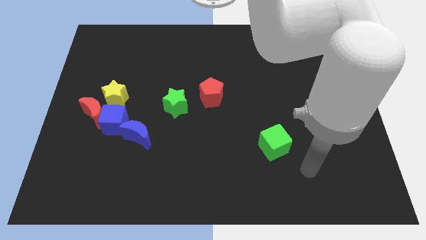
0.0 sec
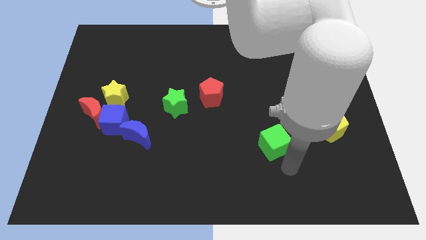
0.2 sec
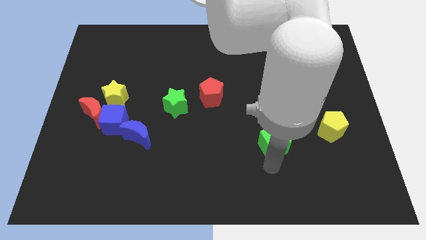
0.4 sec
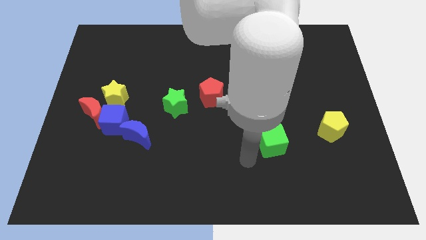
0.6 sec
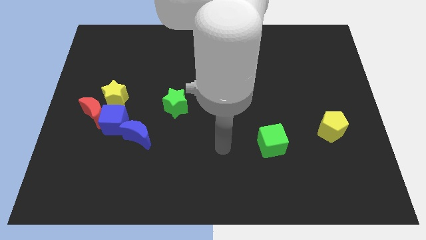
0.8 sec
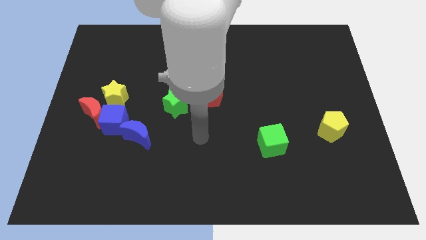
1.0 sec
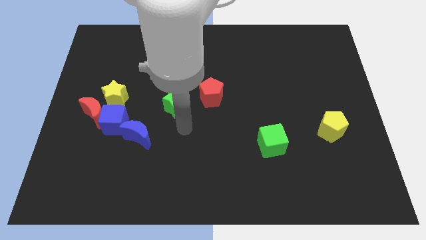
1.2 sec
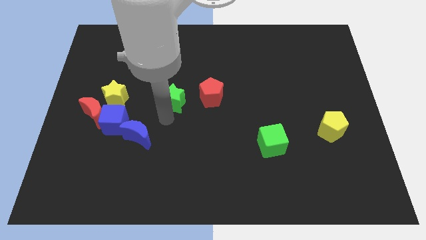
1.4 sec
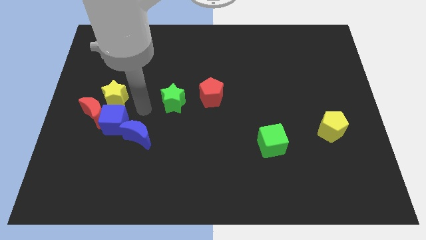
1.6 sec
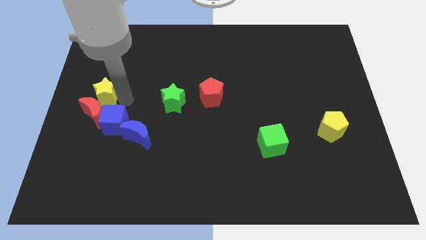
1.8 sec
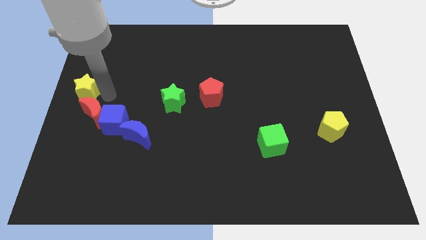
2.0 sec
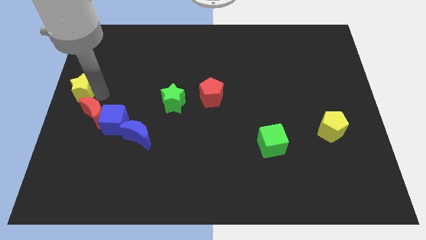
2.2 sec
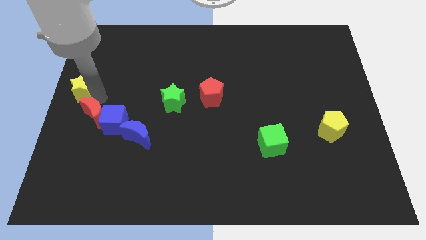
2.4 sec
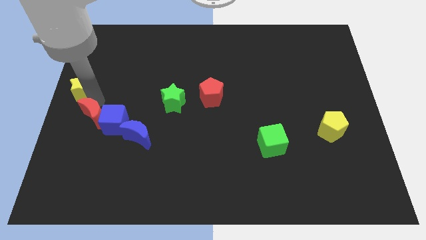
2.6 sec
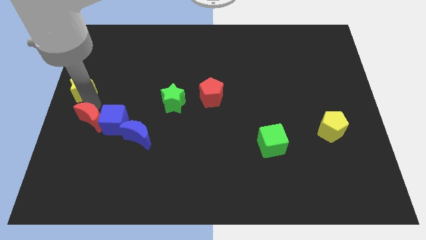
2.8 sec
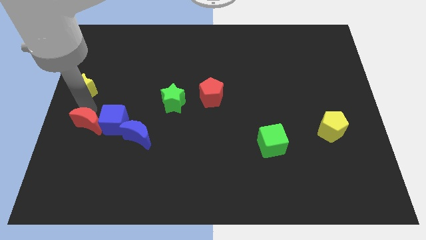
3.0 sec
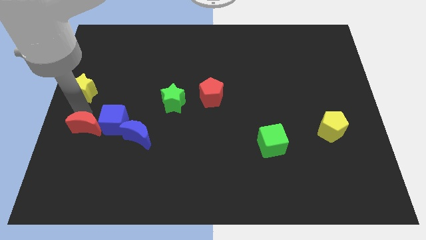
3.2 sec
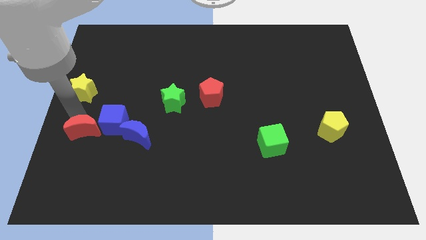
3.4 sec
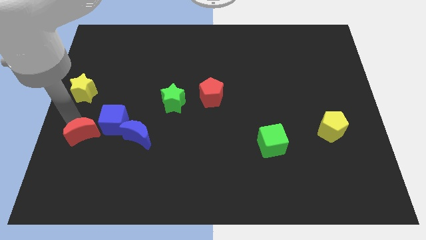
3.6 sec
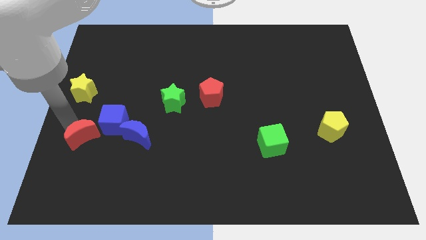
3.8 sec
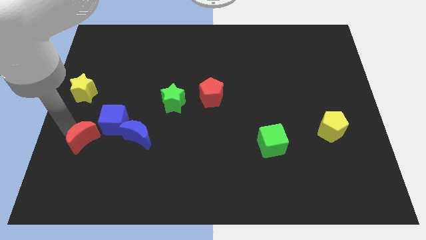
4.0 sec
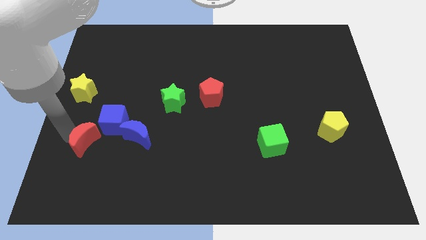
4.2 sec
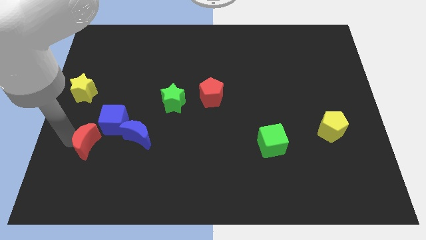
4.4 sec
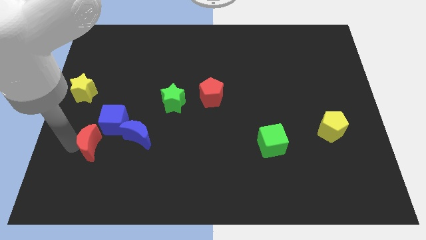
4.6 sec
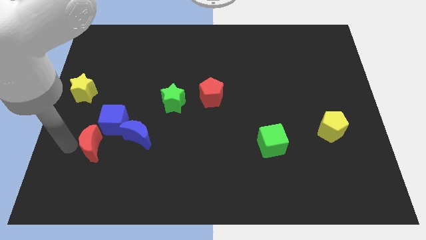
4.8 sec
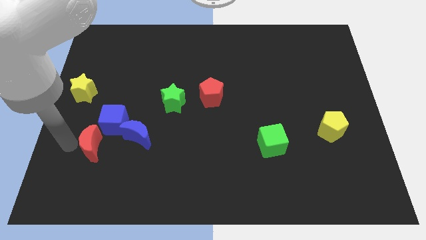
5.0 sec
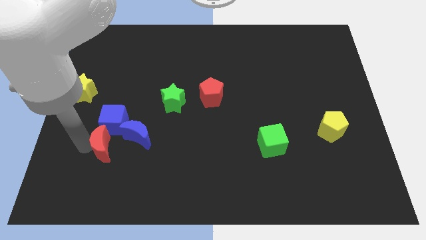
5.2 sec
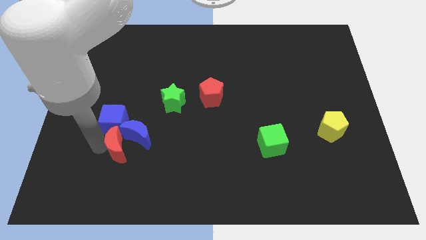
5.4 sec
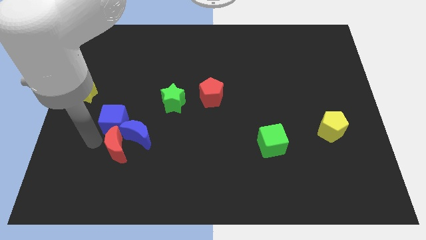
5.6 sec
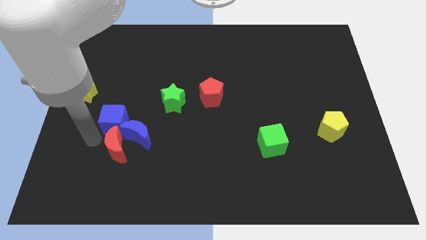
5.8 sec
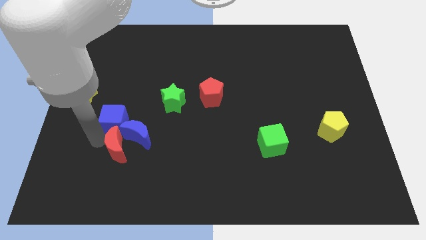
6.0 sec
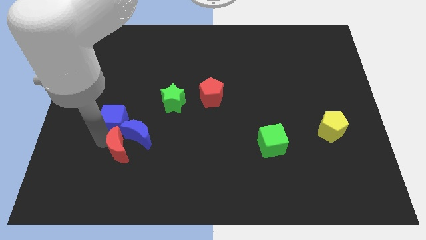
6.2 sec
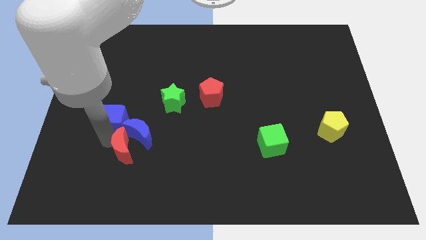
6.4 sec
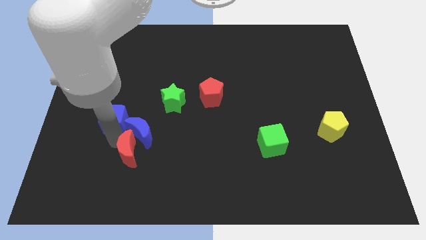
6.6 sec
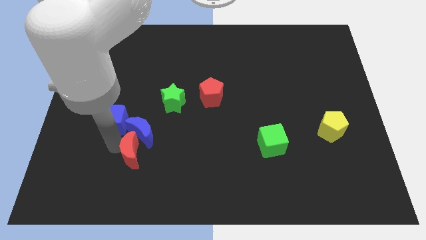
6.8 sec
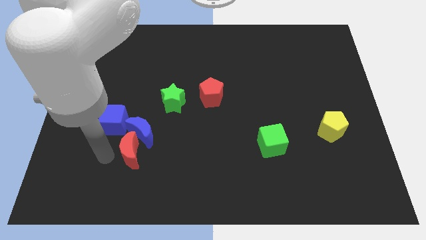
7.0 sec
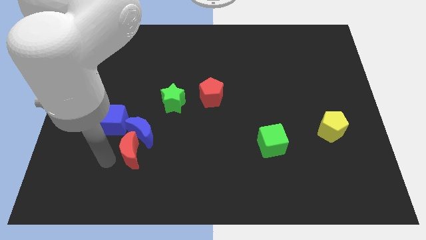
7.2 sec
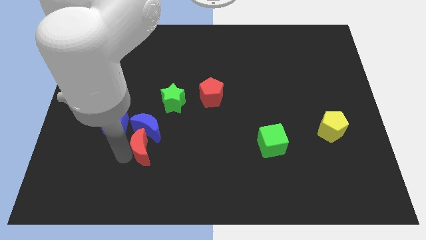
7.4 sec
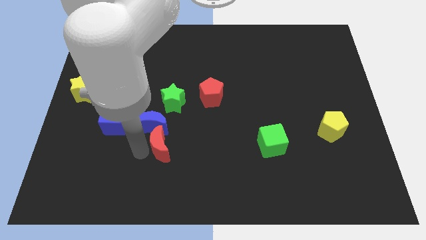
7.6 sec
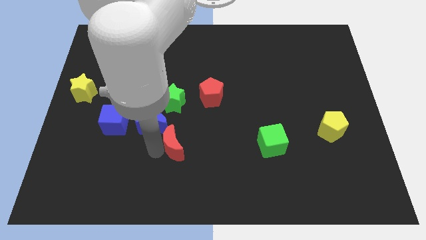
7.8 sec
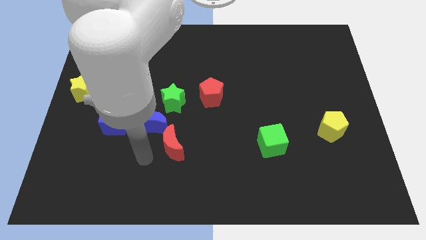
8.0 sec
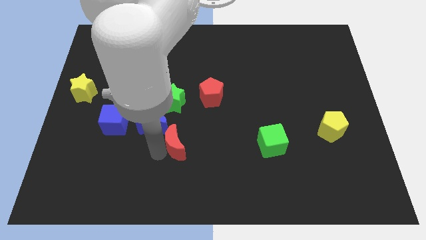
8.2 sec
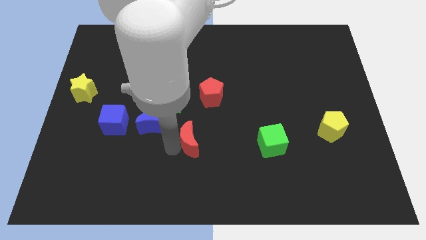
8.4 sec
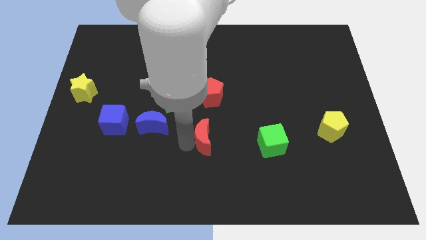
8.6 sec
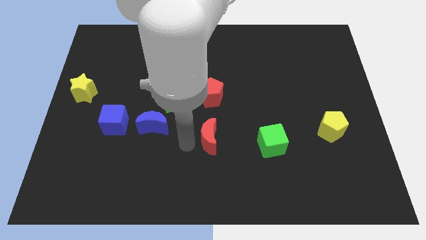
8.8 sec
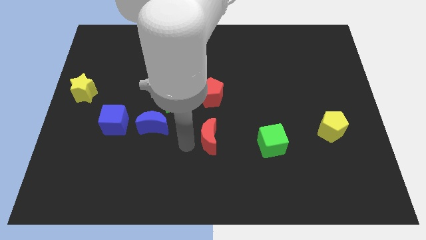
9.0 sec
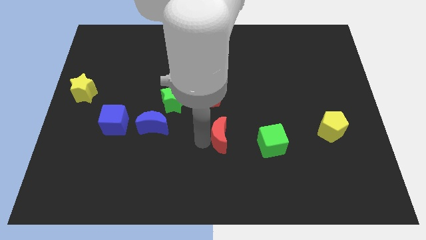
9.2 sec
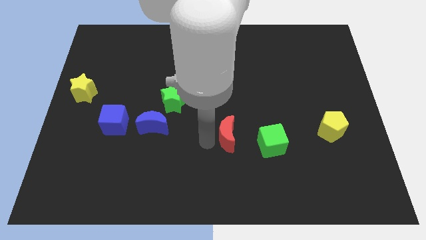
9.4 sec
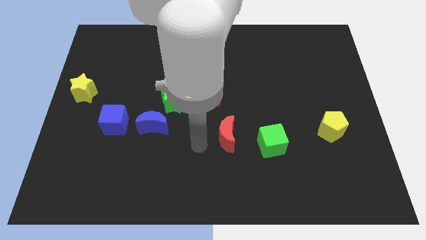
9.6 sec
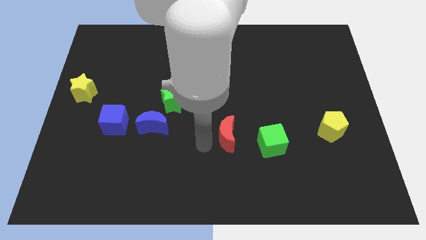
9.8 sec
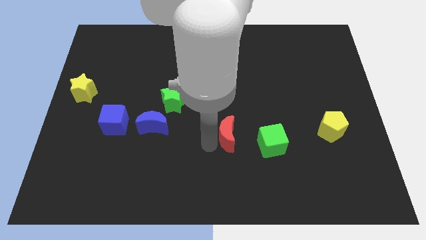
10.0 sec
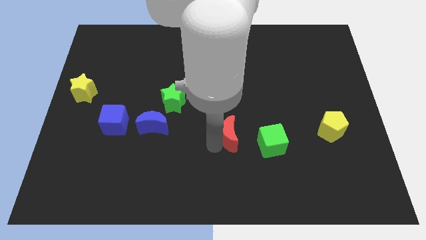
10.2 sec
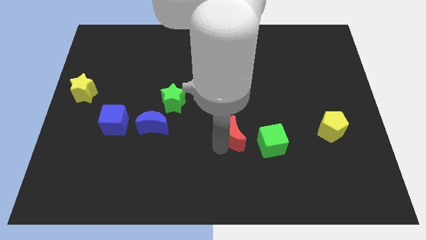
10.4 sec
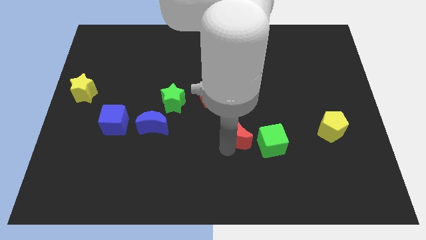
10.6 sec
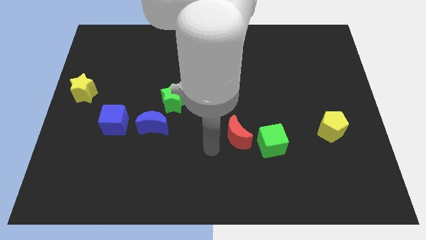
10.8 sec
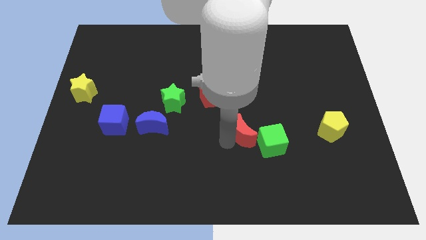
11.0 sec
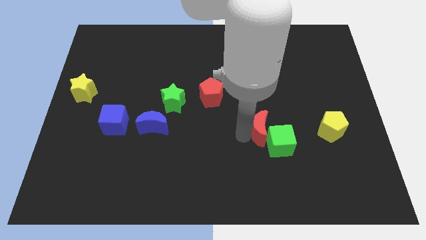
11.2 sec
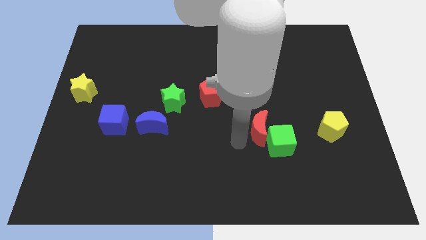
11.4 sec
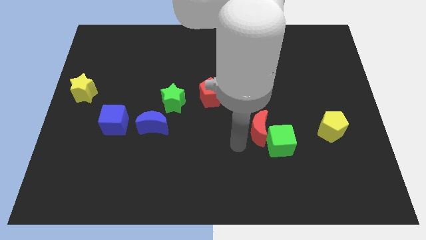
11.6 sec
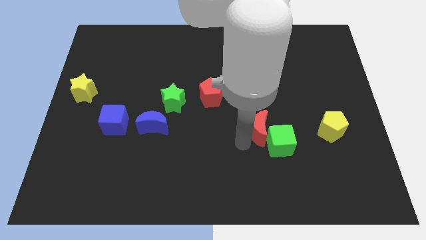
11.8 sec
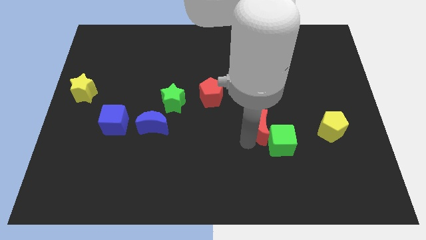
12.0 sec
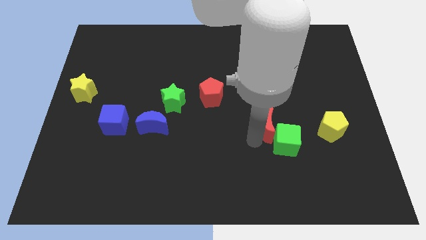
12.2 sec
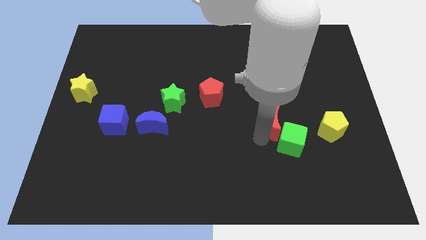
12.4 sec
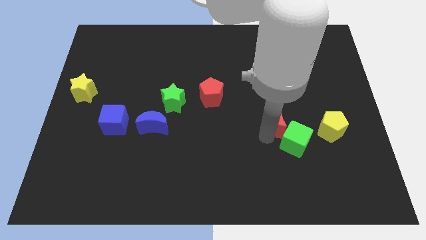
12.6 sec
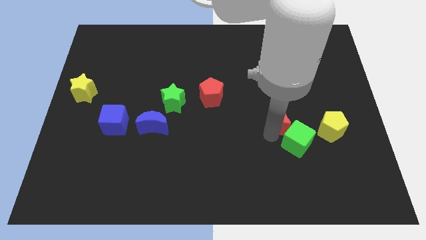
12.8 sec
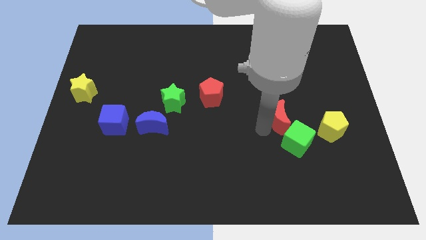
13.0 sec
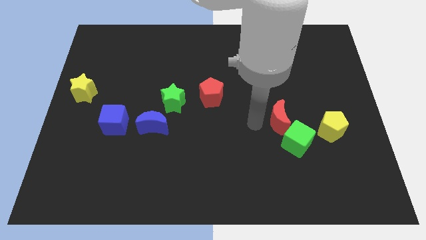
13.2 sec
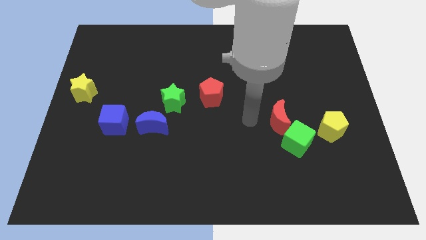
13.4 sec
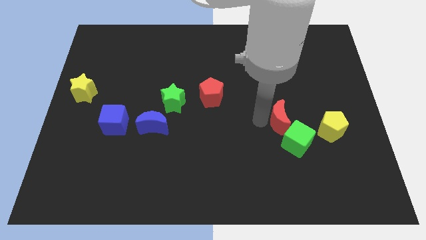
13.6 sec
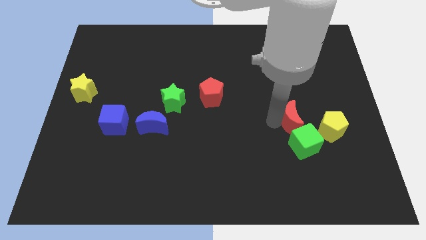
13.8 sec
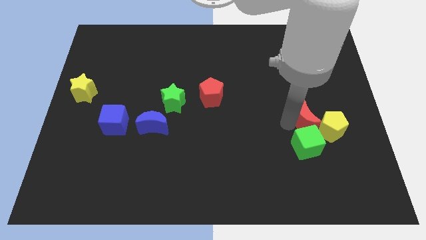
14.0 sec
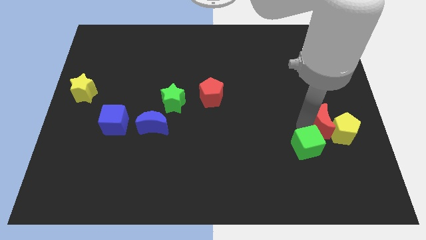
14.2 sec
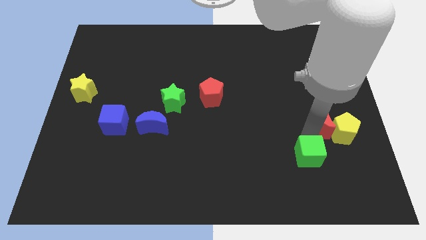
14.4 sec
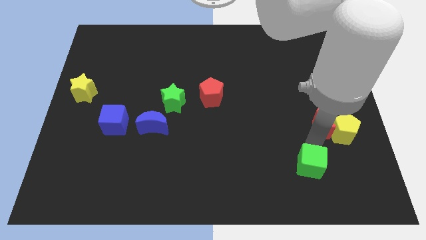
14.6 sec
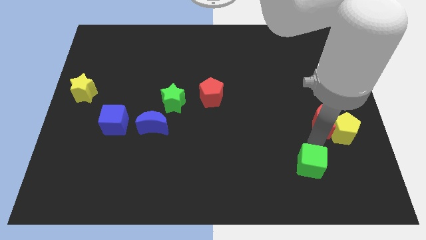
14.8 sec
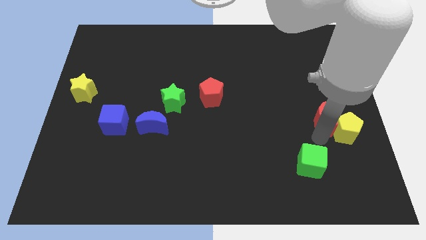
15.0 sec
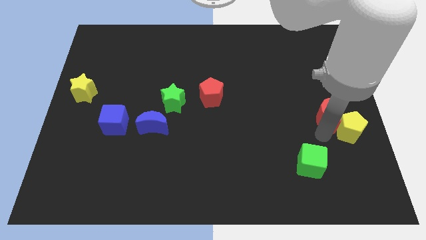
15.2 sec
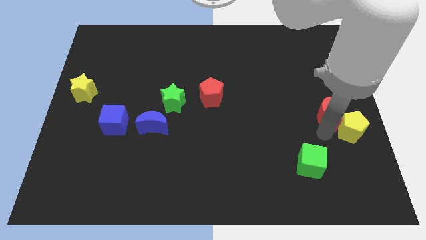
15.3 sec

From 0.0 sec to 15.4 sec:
move the red moon to the right side of the board
